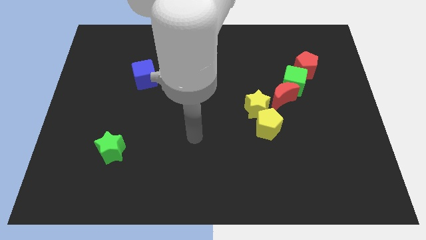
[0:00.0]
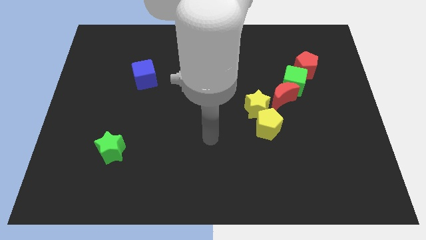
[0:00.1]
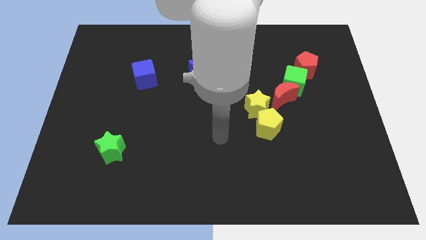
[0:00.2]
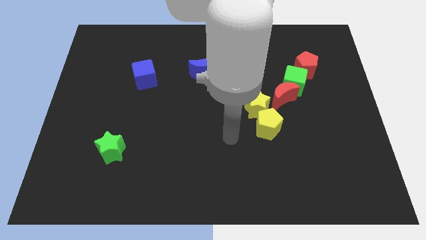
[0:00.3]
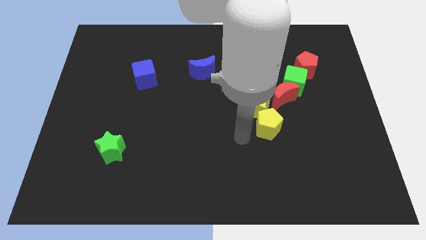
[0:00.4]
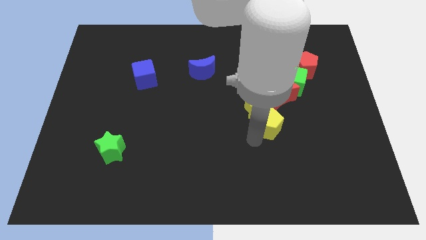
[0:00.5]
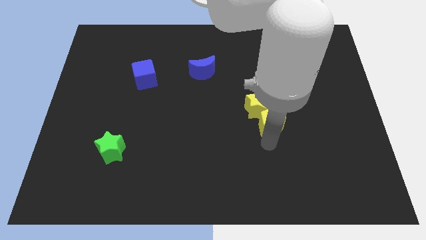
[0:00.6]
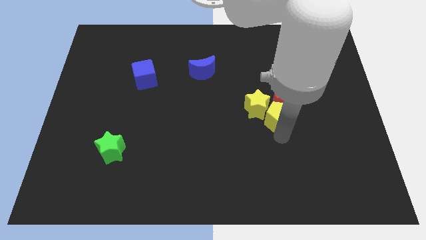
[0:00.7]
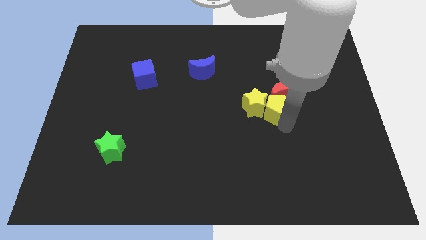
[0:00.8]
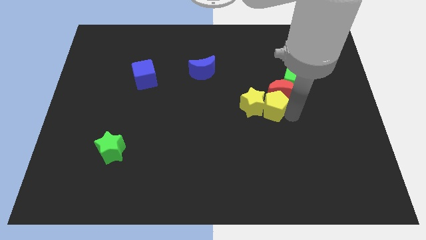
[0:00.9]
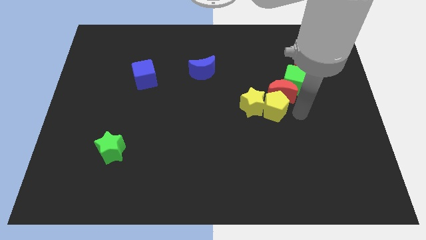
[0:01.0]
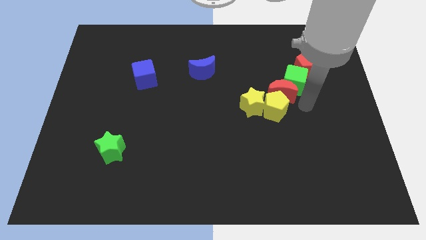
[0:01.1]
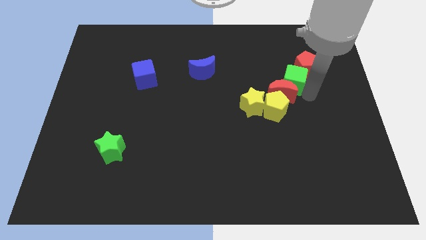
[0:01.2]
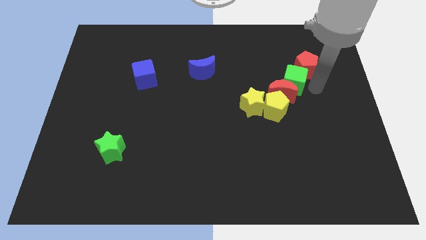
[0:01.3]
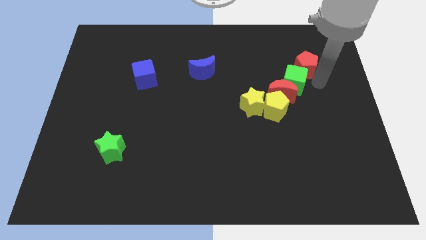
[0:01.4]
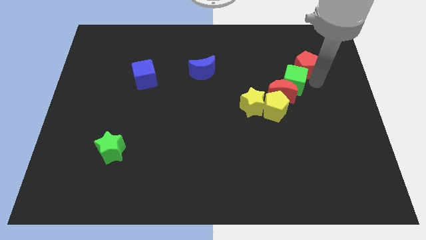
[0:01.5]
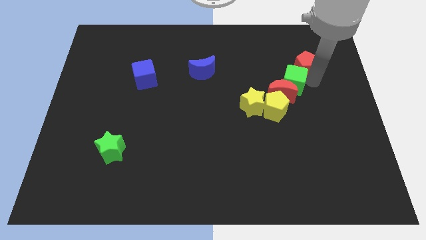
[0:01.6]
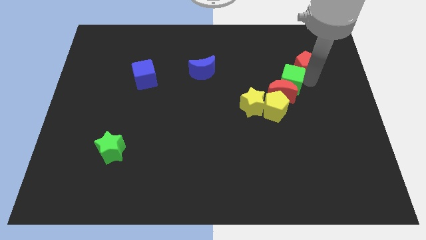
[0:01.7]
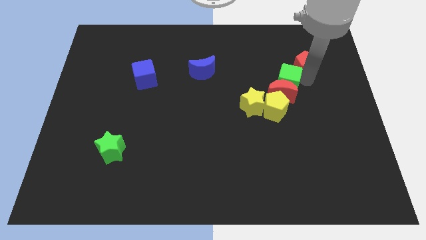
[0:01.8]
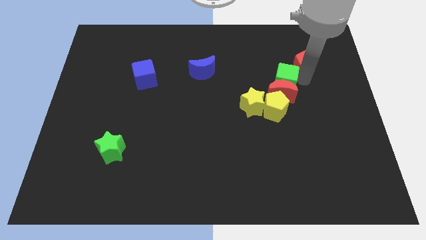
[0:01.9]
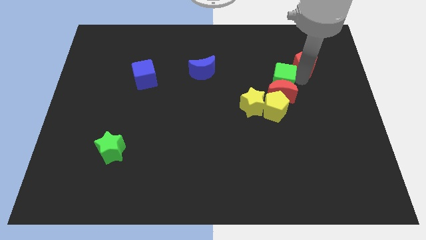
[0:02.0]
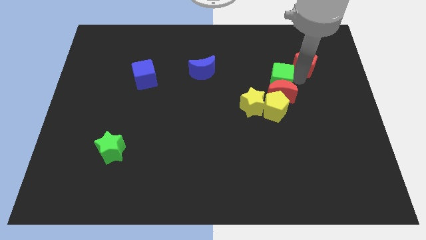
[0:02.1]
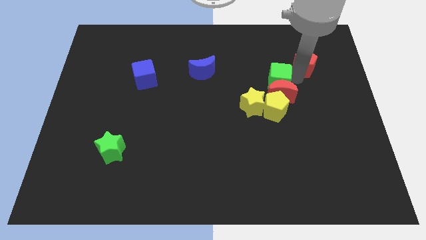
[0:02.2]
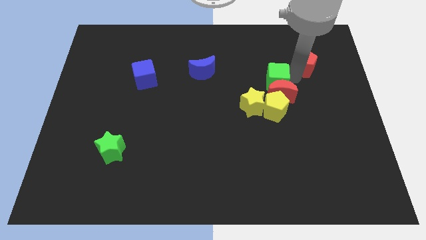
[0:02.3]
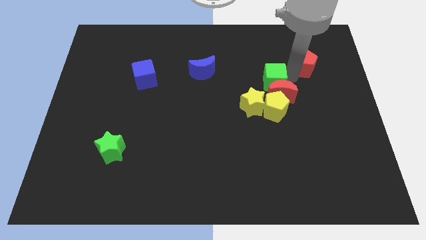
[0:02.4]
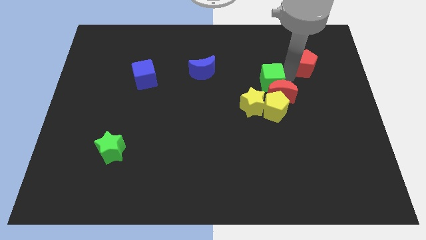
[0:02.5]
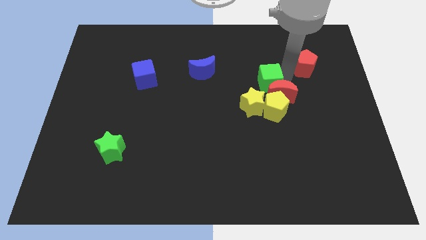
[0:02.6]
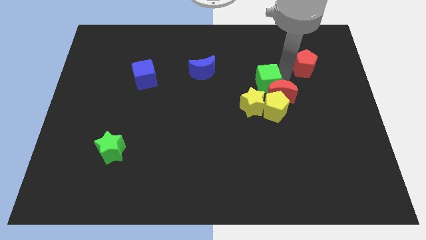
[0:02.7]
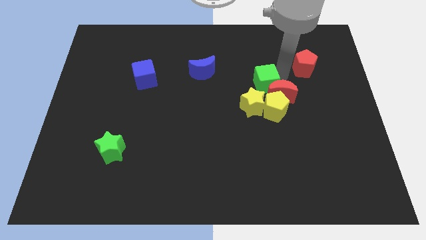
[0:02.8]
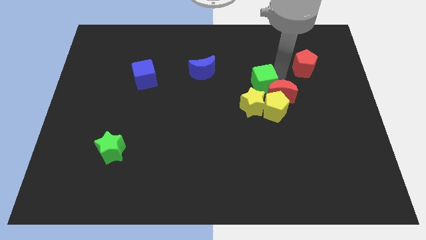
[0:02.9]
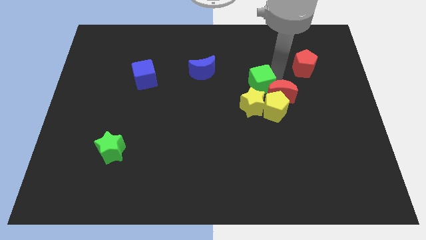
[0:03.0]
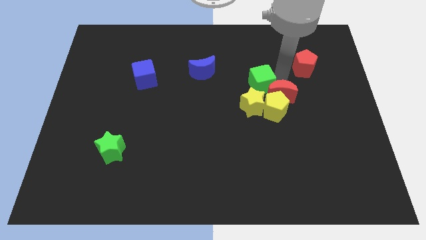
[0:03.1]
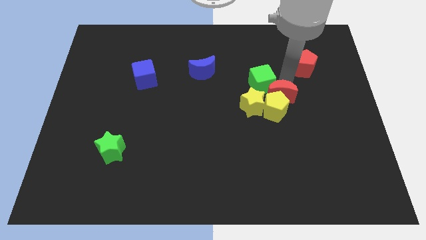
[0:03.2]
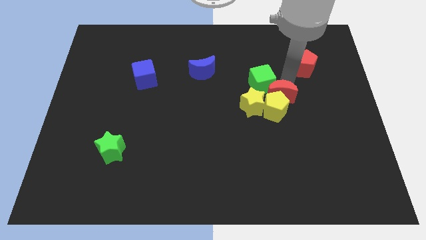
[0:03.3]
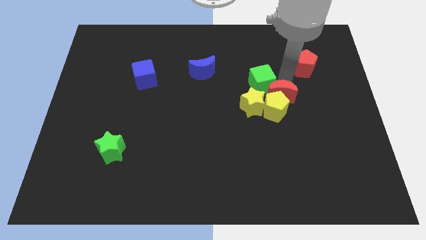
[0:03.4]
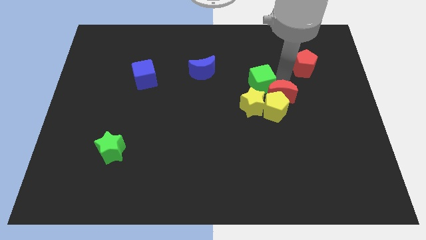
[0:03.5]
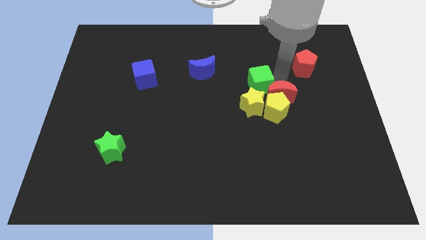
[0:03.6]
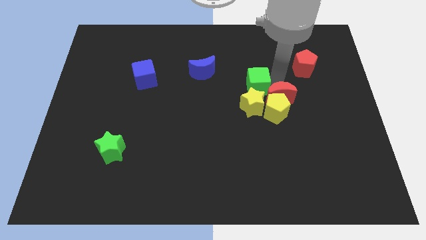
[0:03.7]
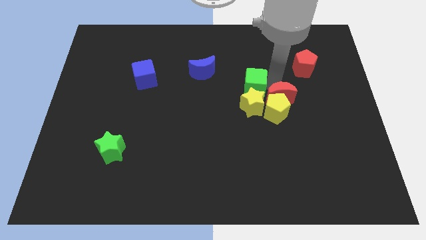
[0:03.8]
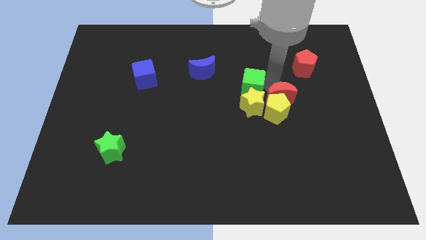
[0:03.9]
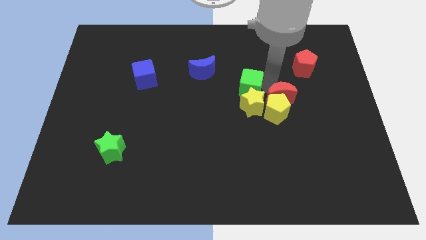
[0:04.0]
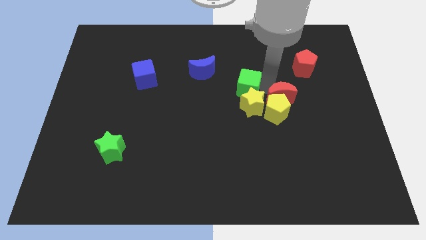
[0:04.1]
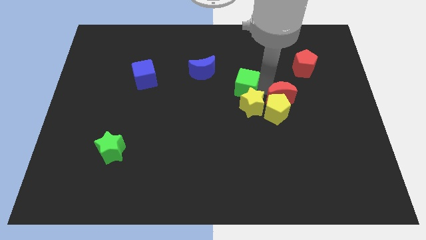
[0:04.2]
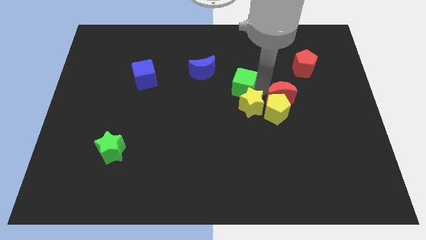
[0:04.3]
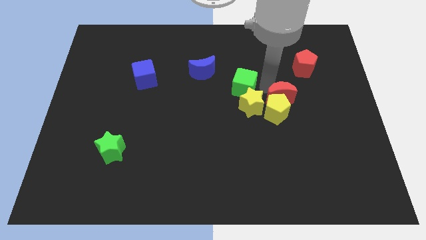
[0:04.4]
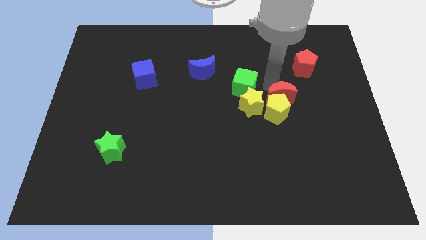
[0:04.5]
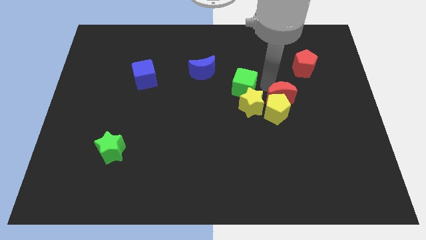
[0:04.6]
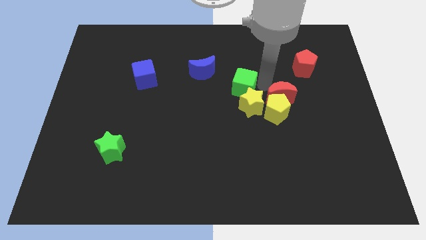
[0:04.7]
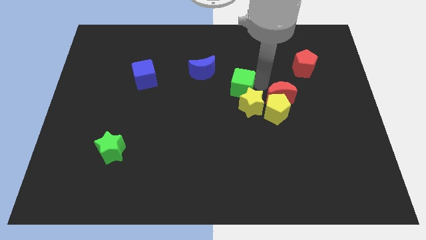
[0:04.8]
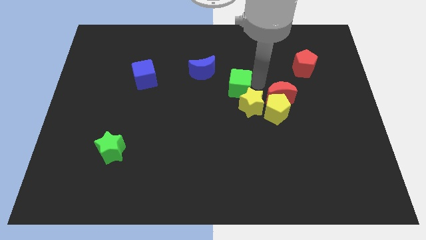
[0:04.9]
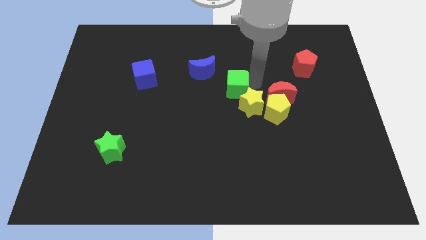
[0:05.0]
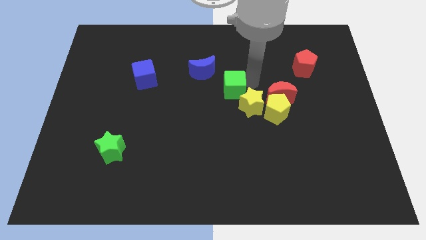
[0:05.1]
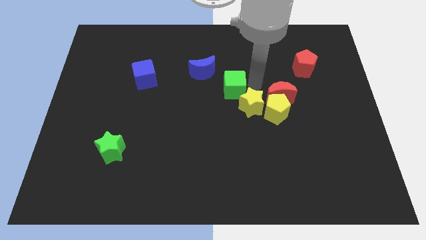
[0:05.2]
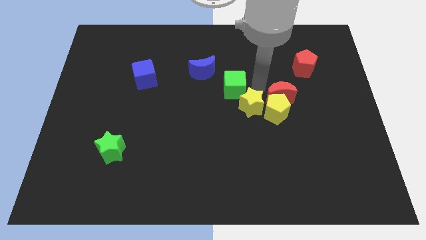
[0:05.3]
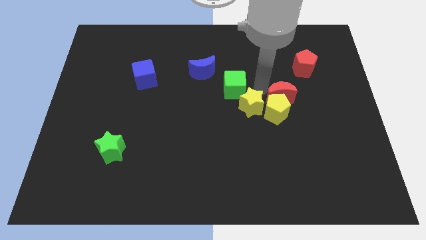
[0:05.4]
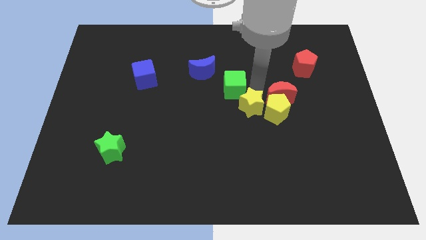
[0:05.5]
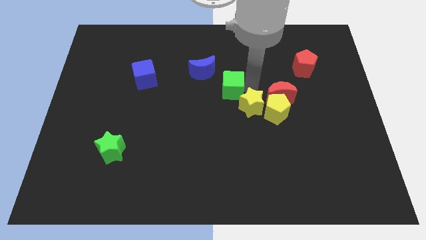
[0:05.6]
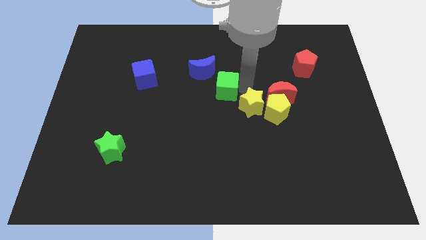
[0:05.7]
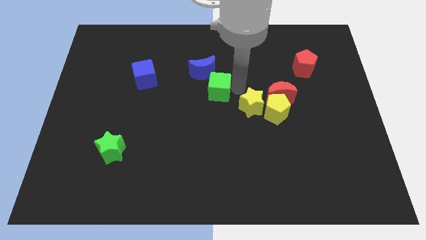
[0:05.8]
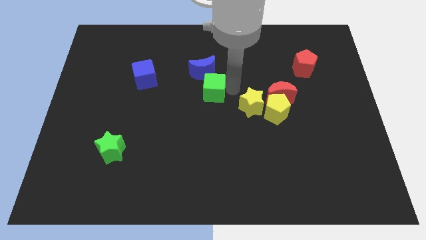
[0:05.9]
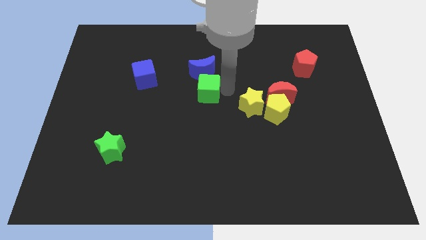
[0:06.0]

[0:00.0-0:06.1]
push the green cube left

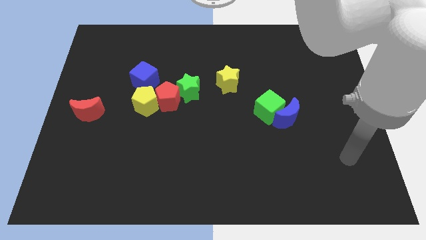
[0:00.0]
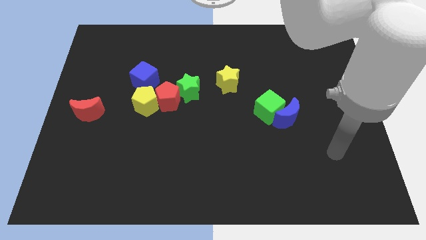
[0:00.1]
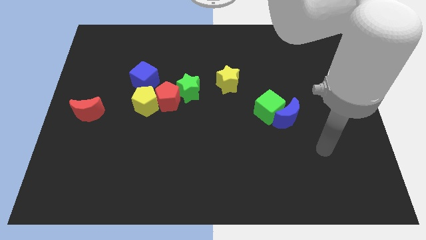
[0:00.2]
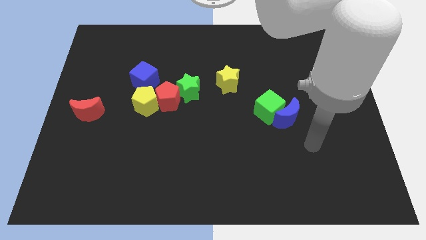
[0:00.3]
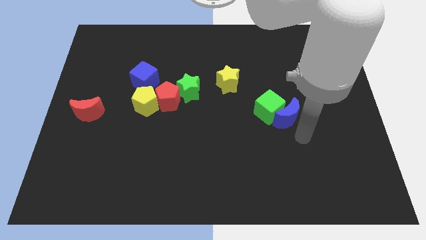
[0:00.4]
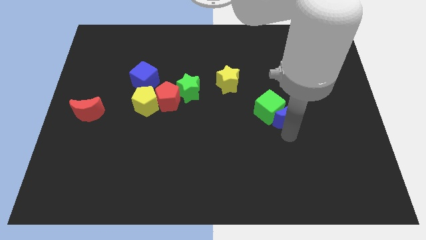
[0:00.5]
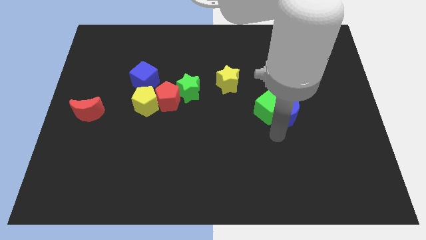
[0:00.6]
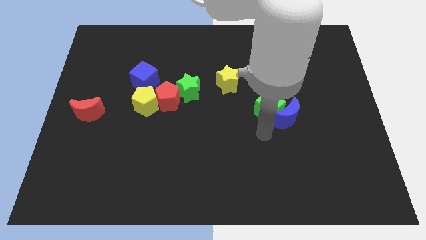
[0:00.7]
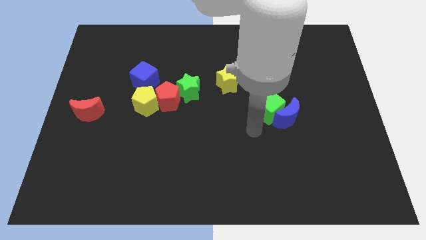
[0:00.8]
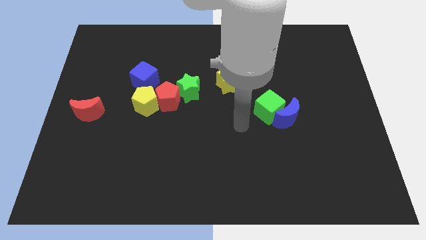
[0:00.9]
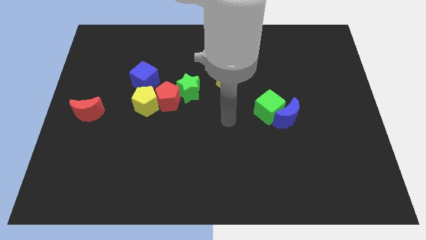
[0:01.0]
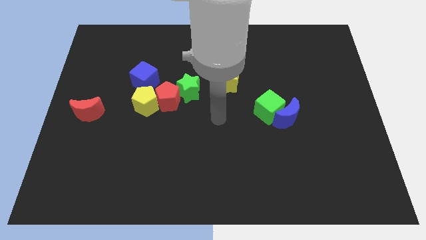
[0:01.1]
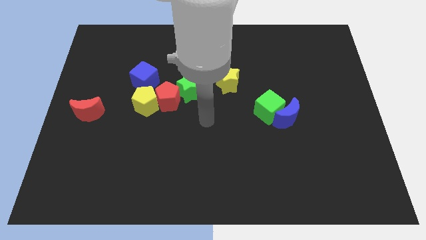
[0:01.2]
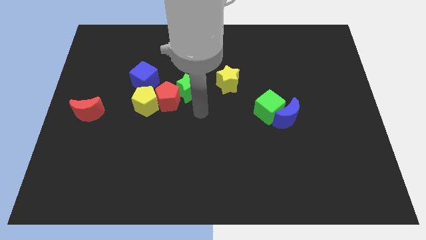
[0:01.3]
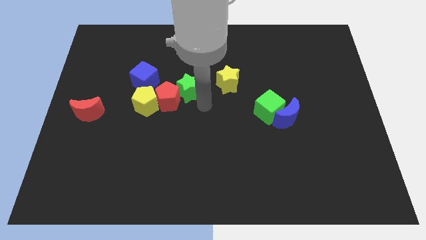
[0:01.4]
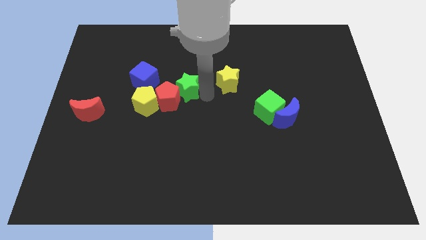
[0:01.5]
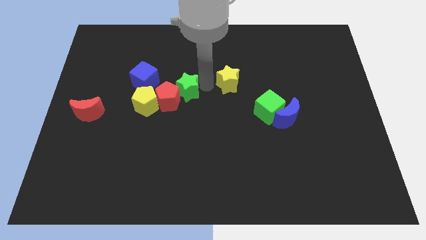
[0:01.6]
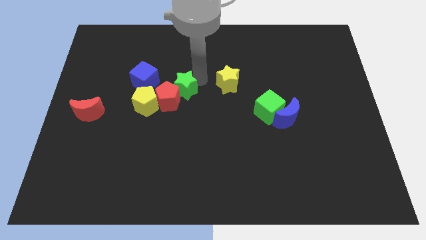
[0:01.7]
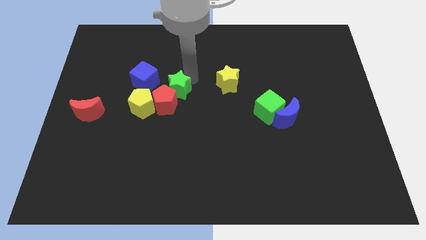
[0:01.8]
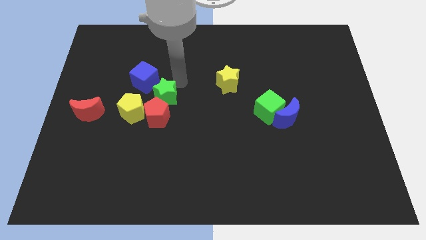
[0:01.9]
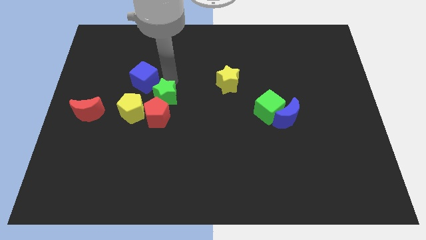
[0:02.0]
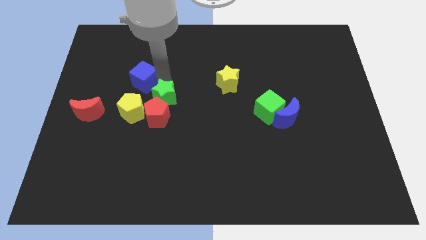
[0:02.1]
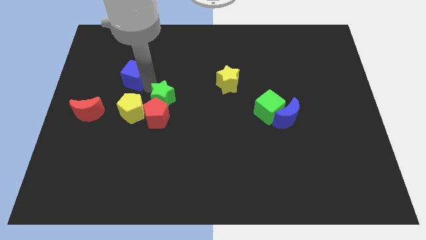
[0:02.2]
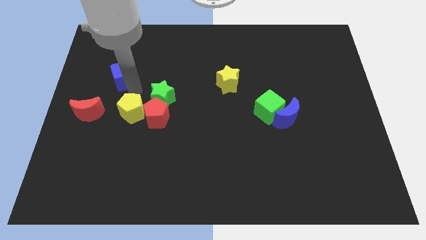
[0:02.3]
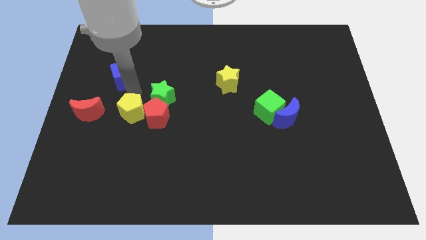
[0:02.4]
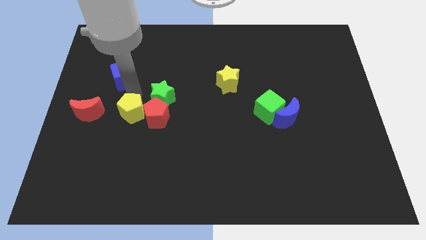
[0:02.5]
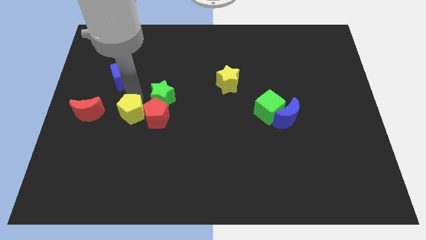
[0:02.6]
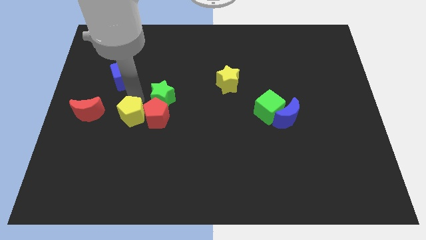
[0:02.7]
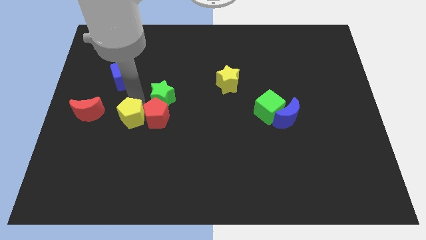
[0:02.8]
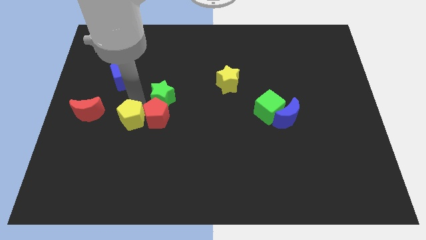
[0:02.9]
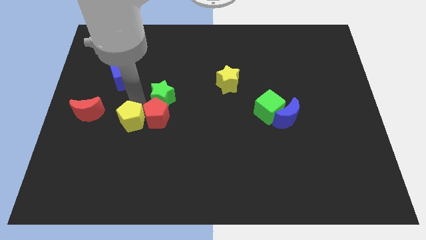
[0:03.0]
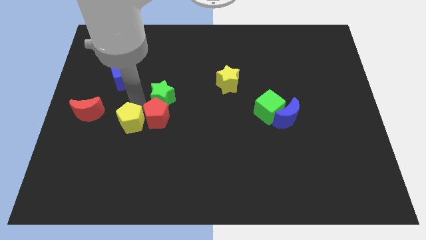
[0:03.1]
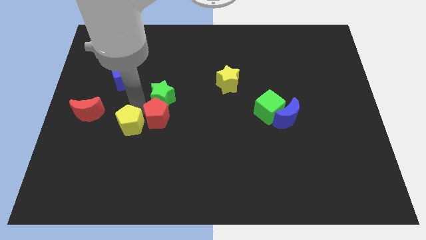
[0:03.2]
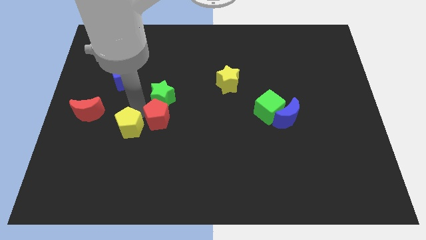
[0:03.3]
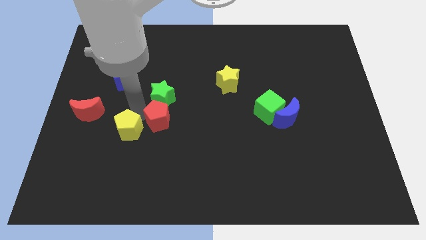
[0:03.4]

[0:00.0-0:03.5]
push the yellow pentagon a little bit down
